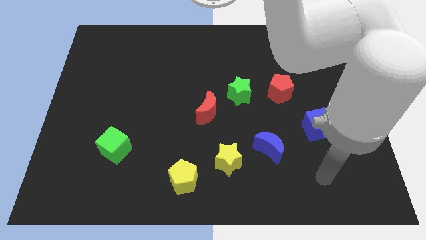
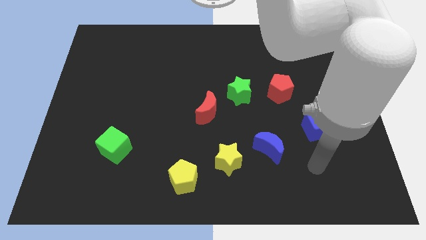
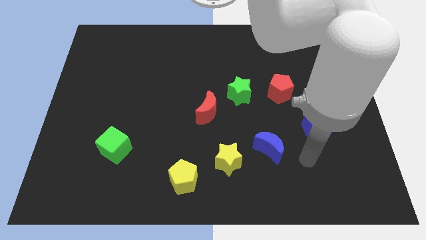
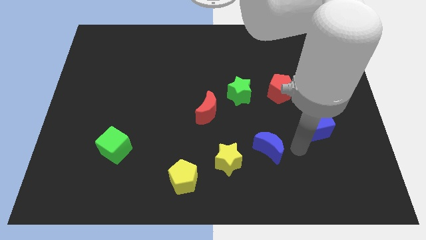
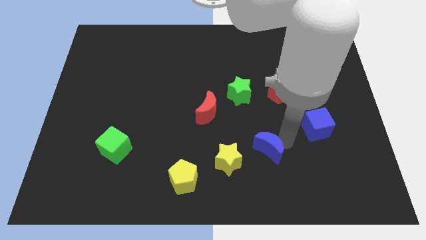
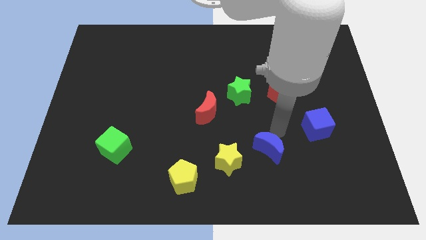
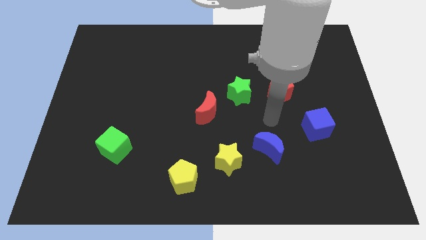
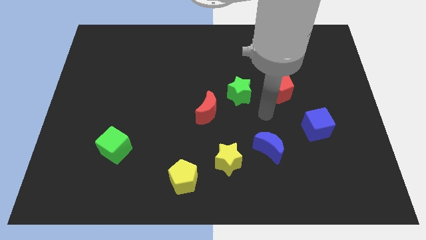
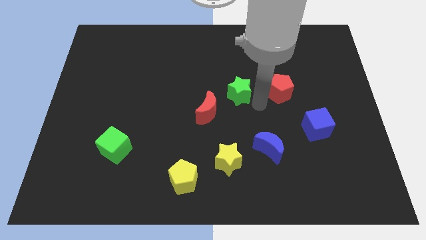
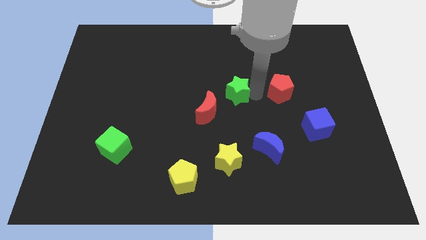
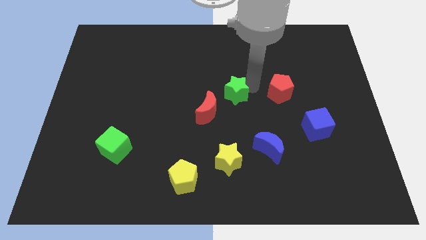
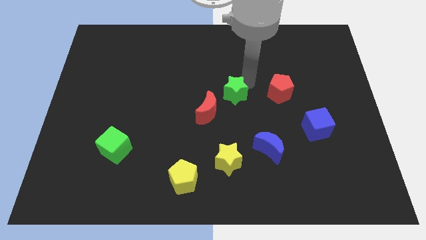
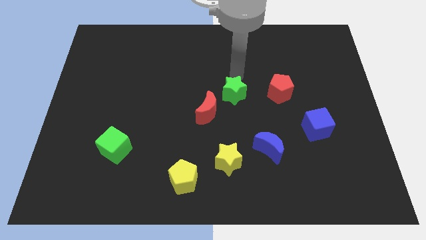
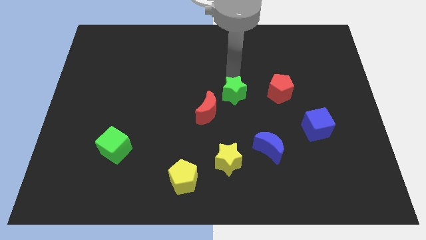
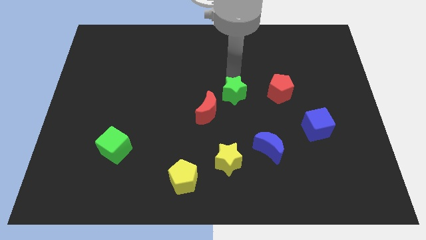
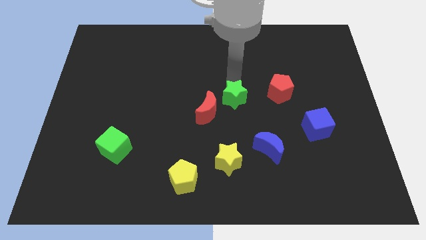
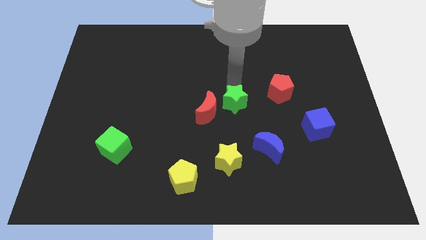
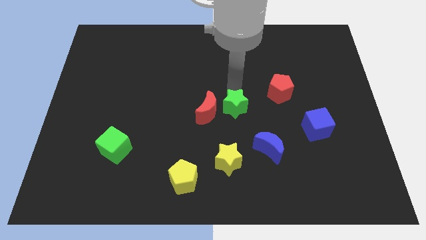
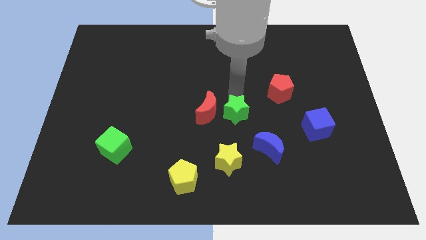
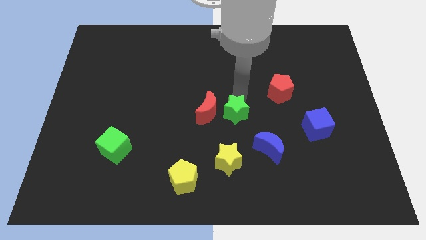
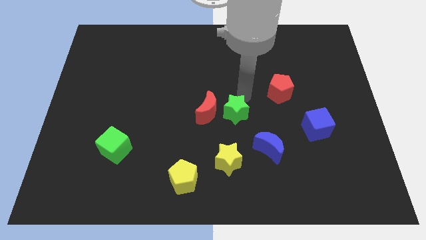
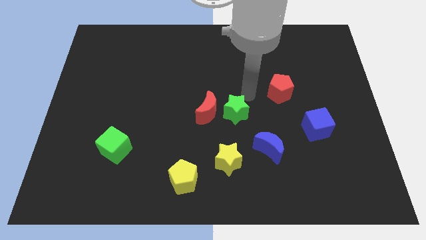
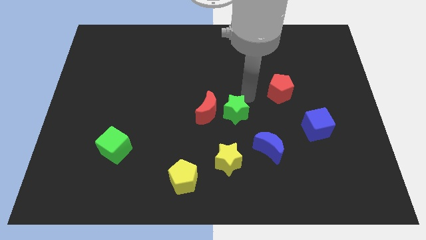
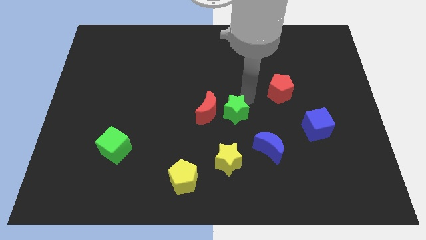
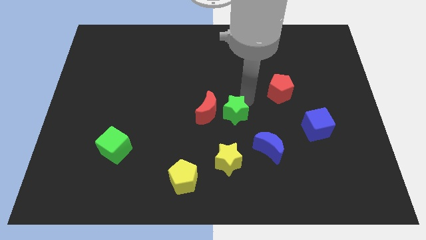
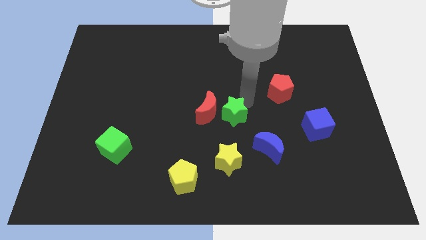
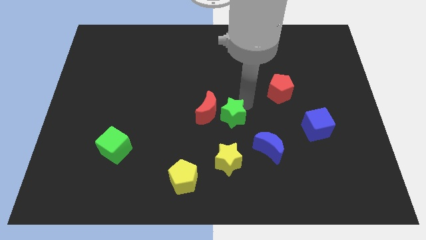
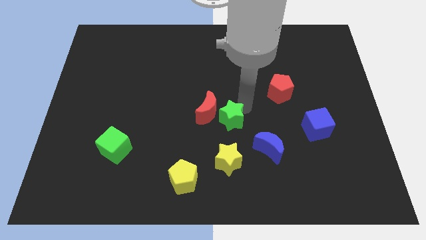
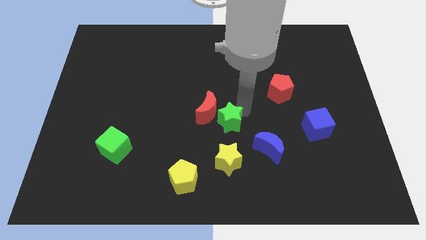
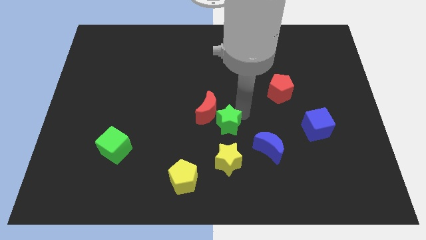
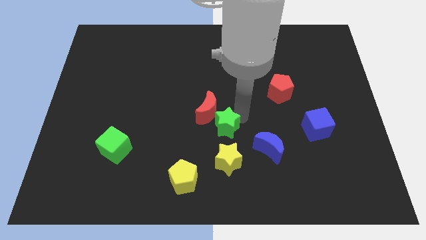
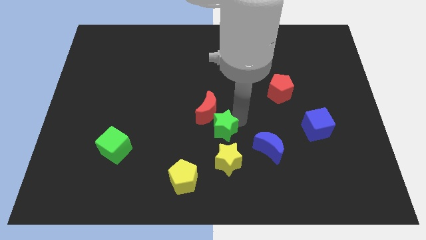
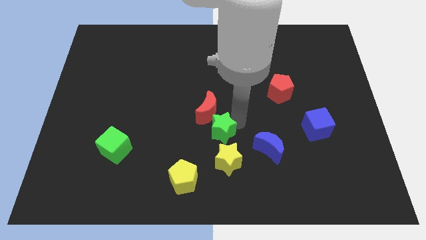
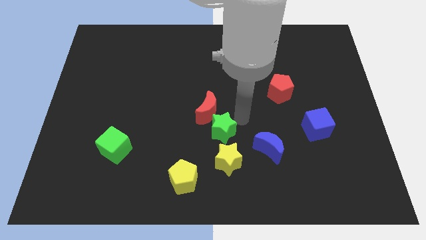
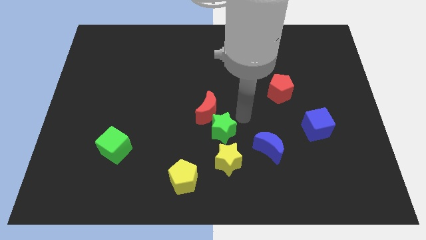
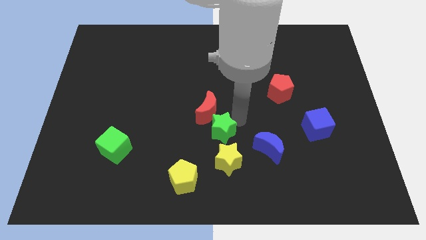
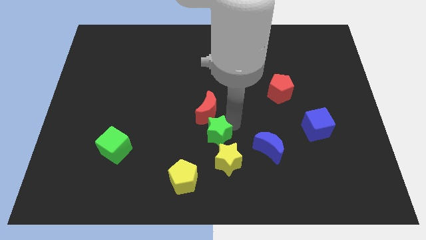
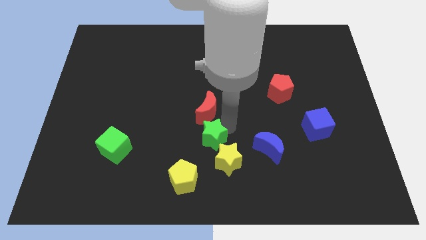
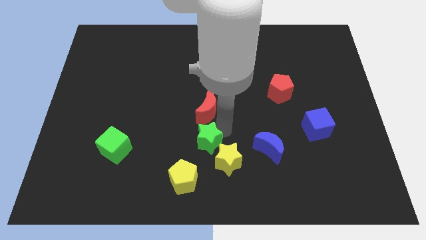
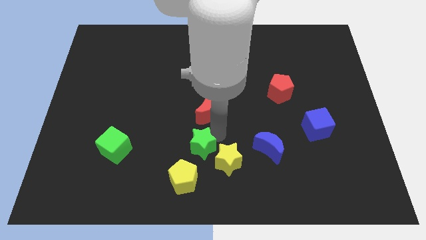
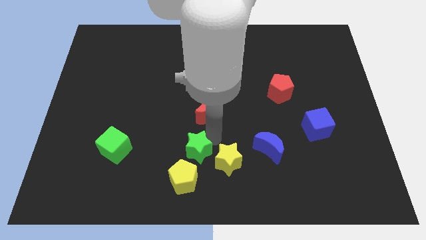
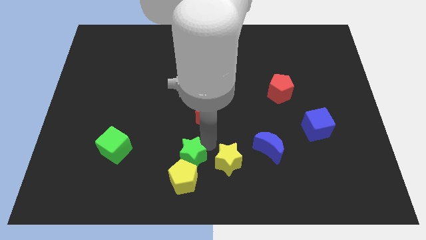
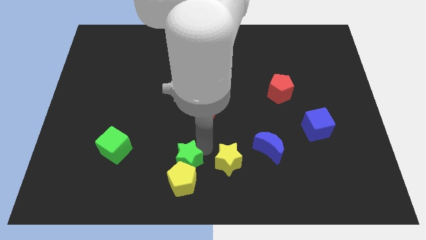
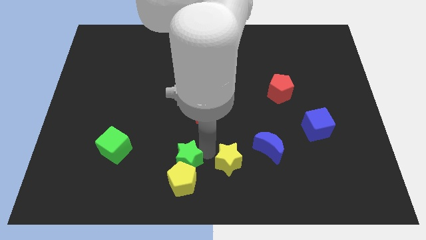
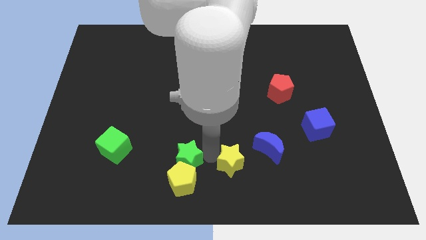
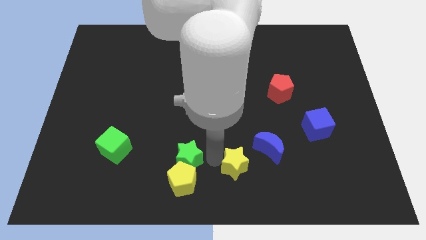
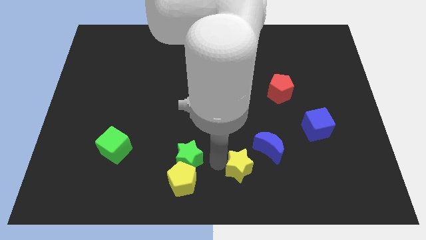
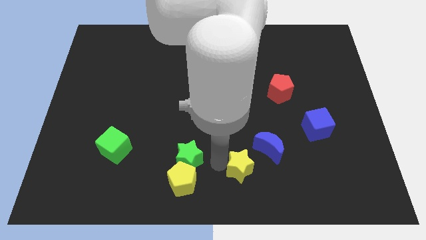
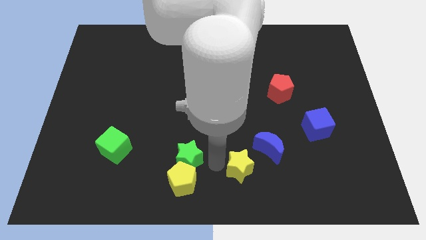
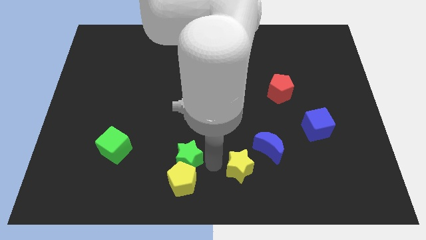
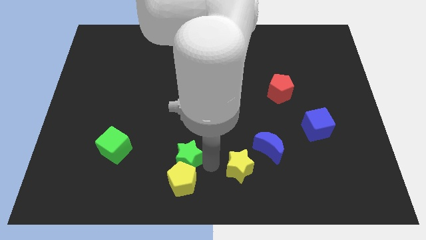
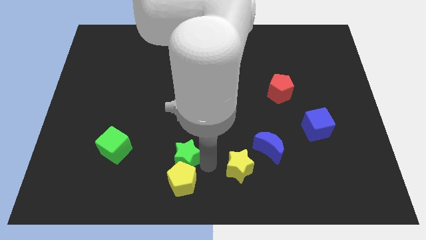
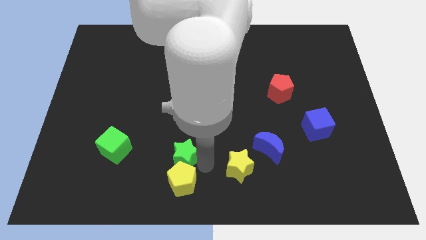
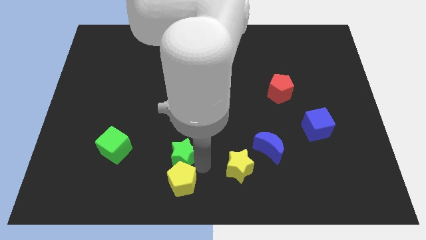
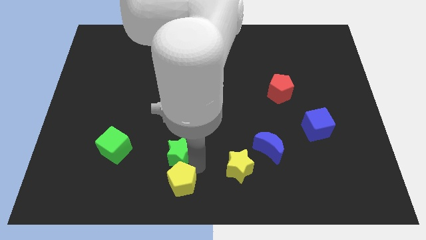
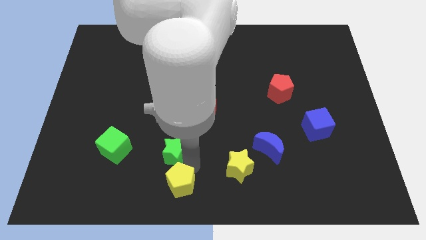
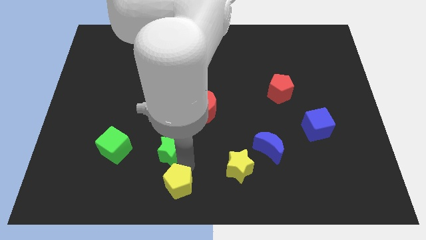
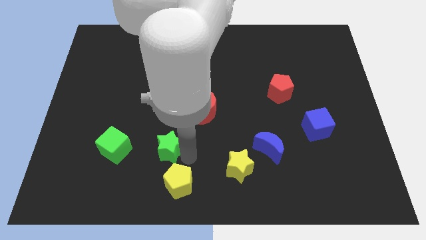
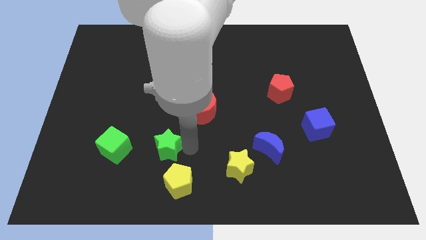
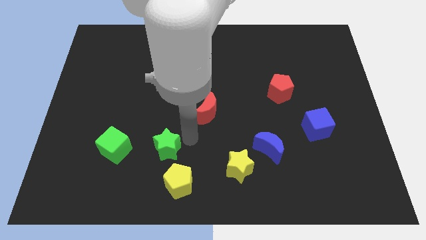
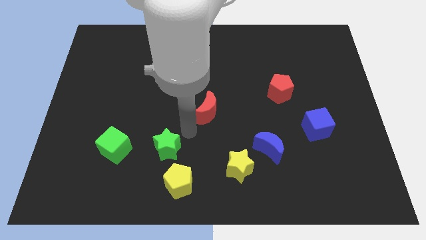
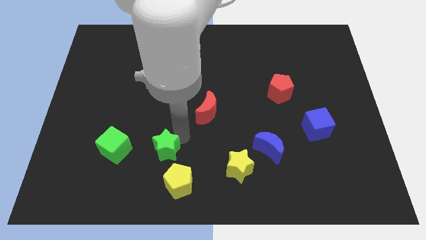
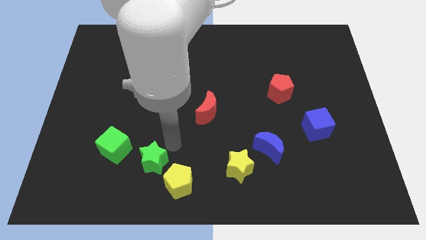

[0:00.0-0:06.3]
put the green star just left of the yellow pentagon
